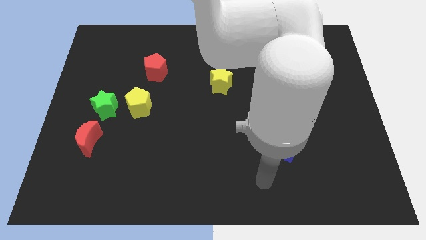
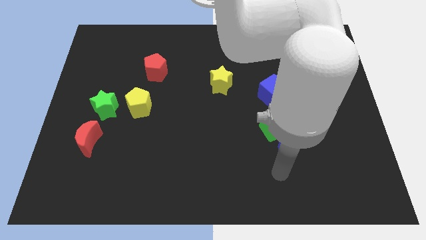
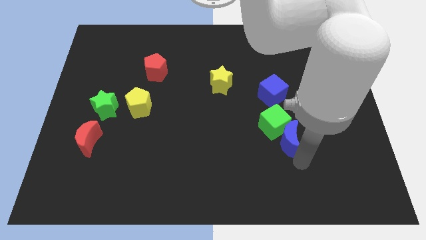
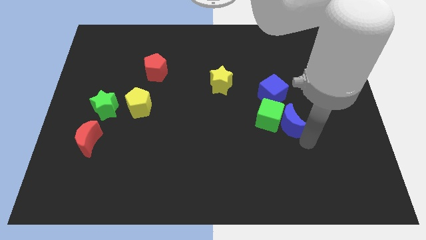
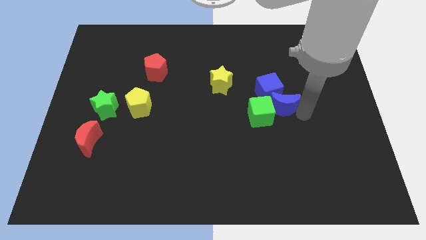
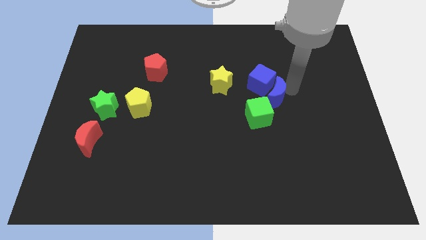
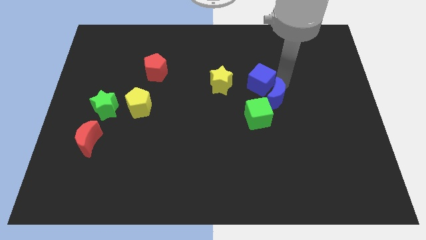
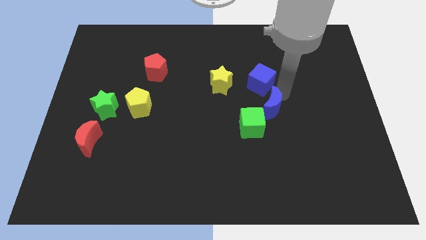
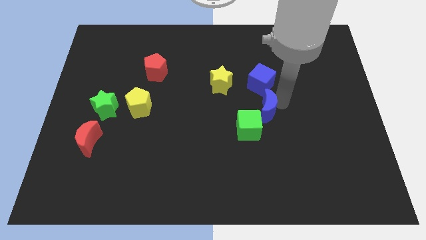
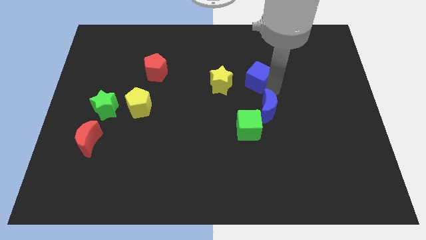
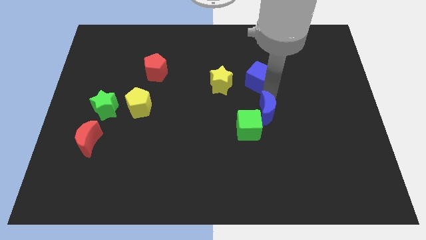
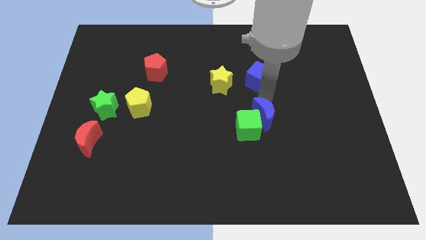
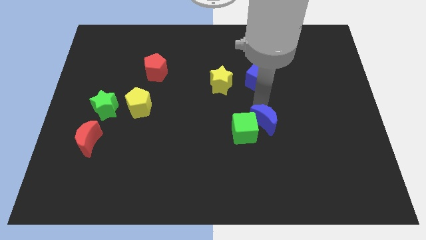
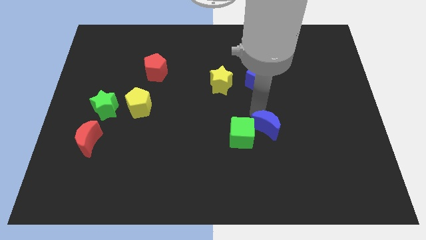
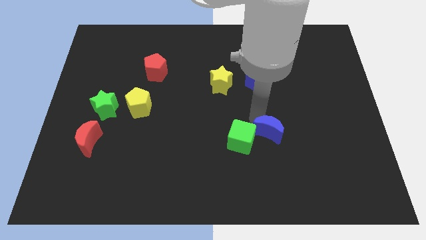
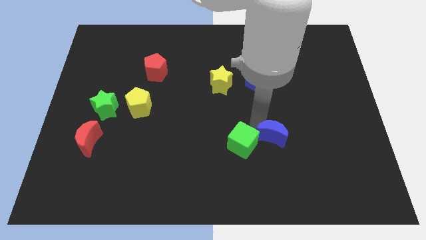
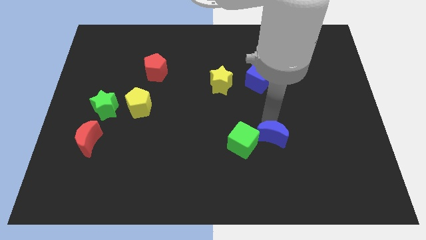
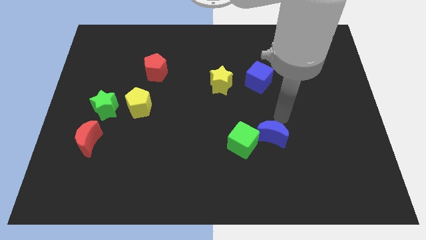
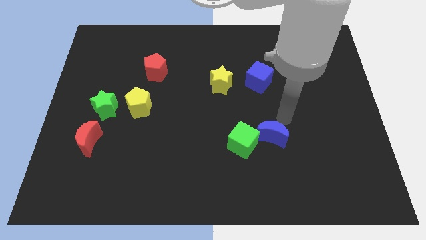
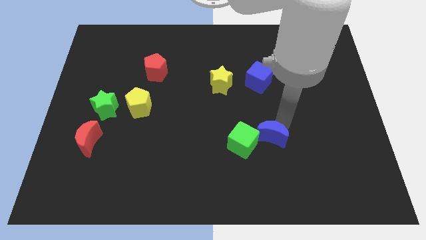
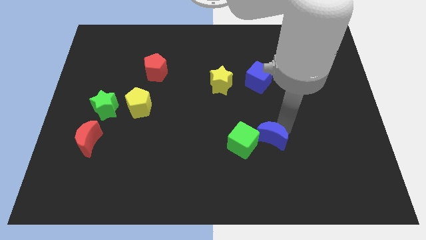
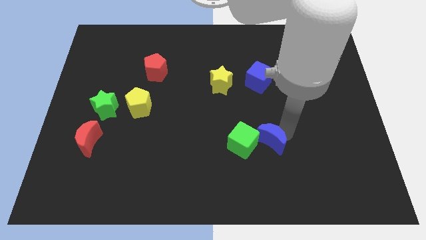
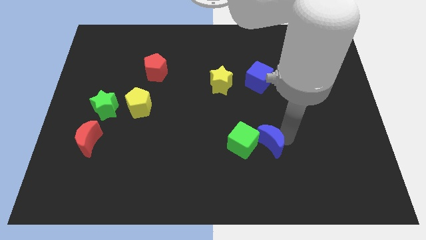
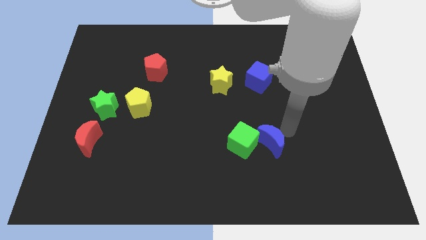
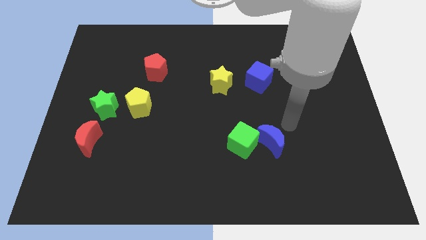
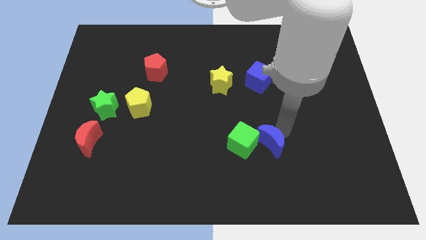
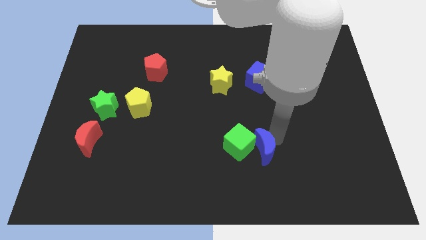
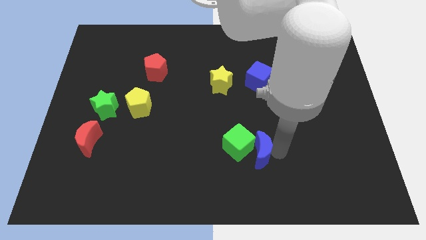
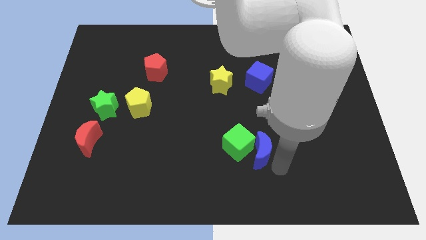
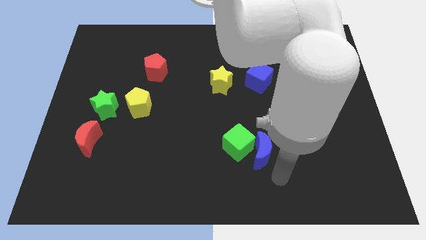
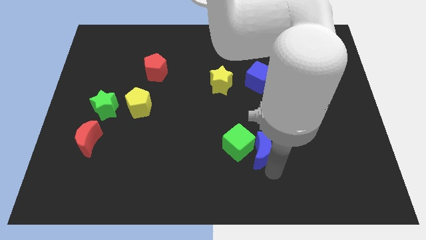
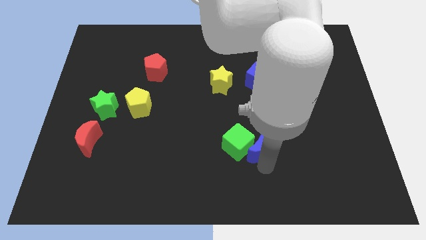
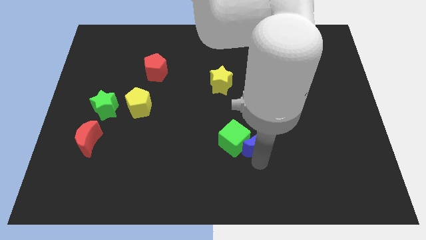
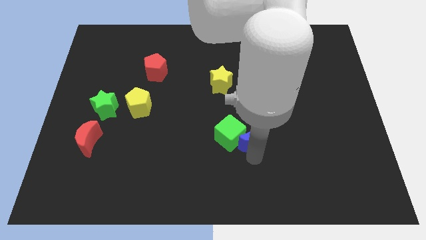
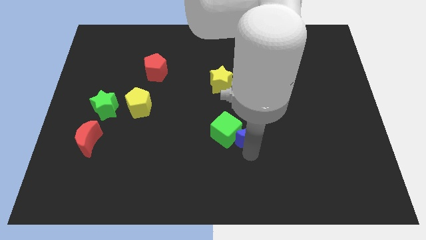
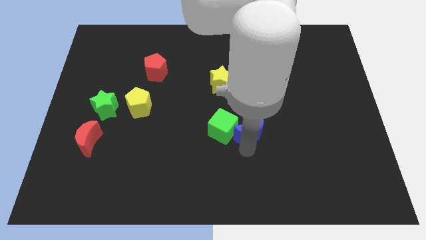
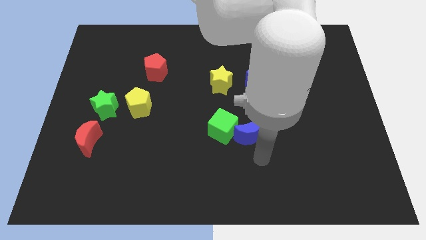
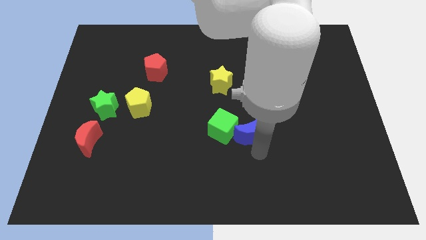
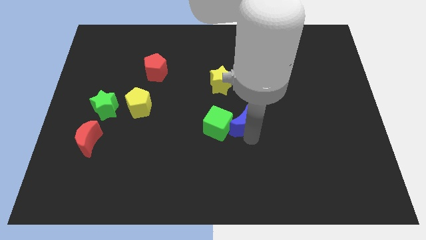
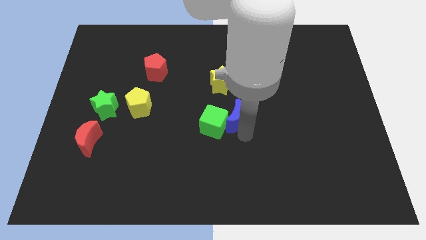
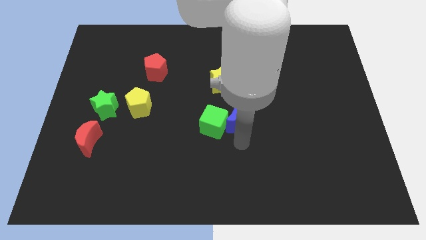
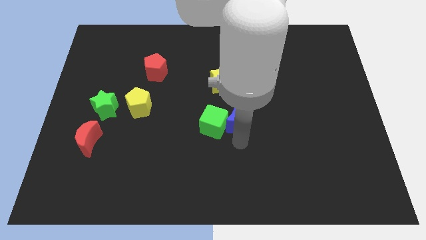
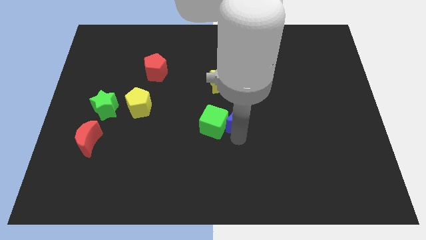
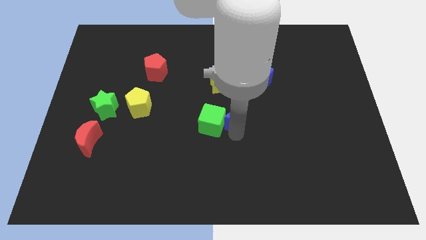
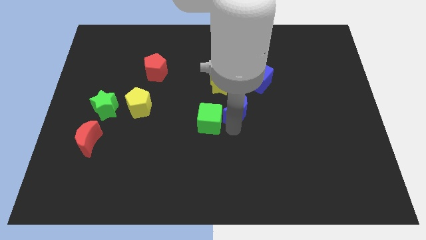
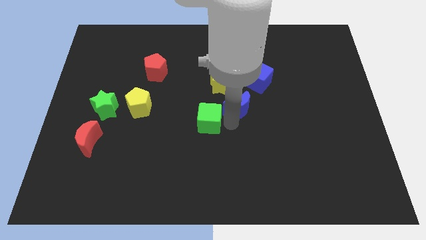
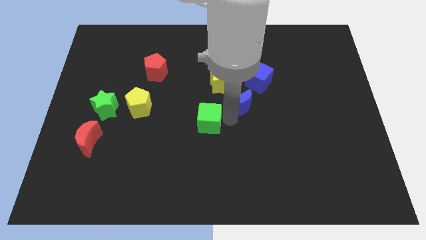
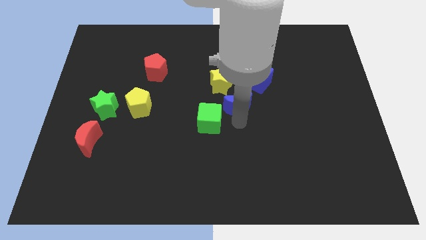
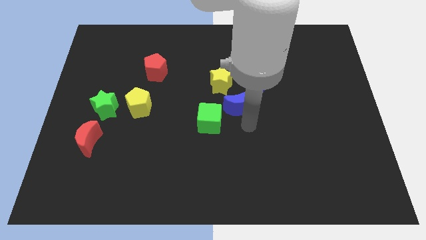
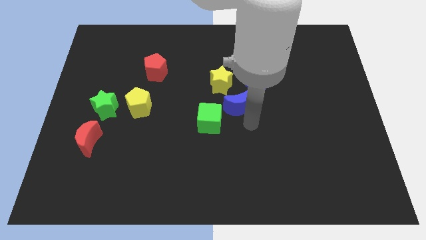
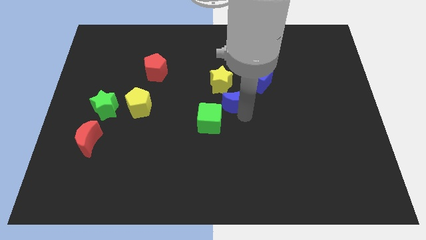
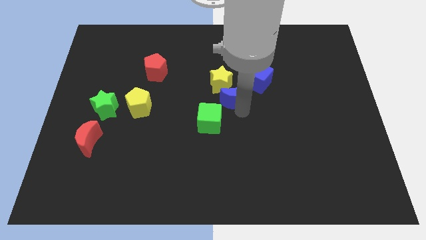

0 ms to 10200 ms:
move the blue moon close to the yellow star

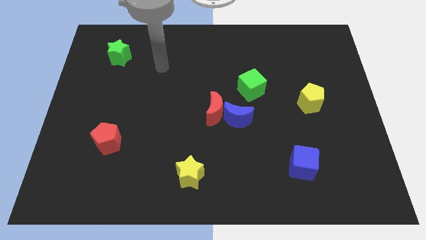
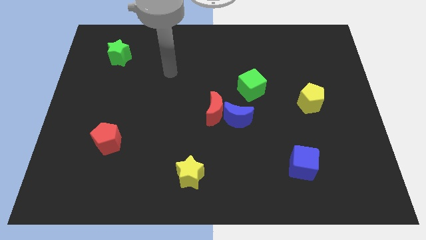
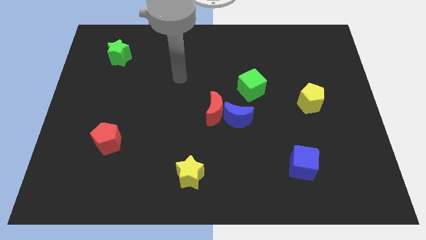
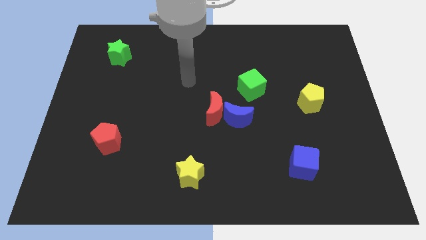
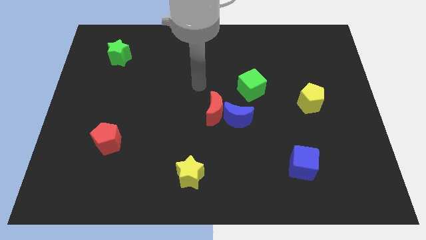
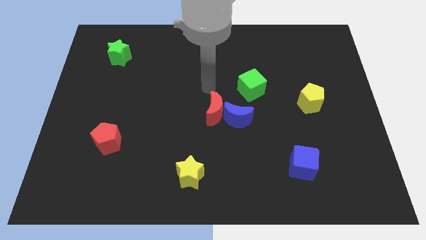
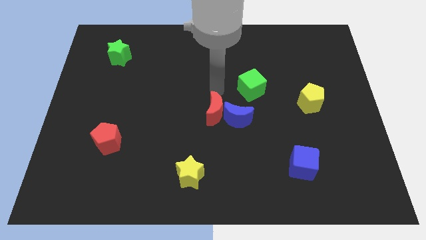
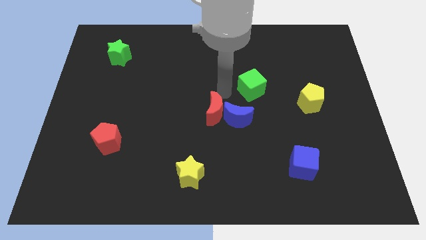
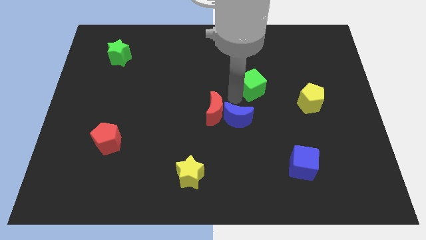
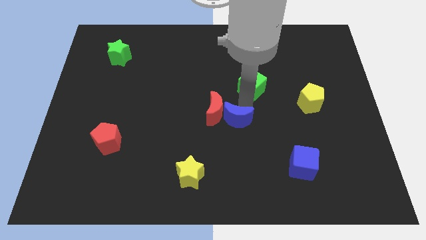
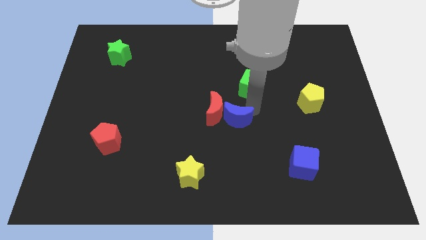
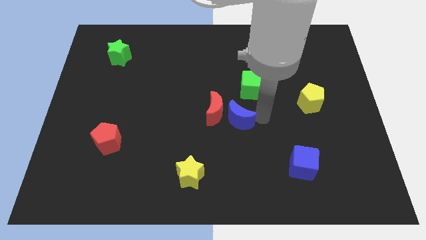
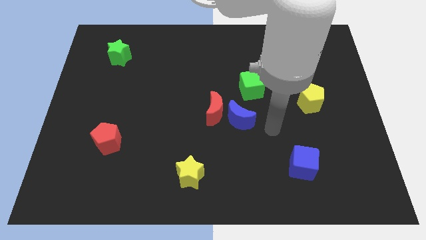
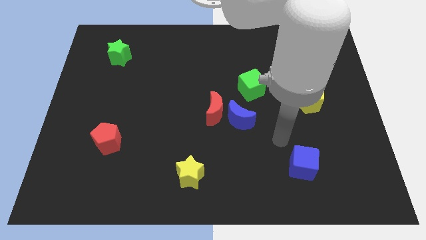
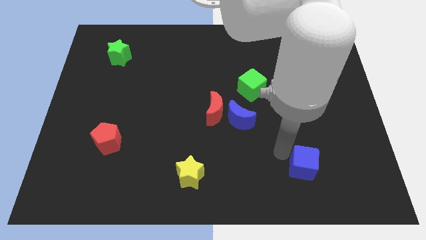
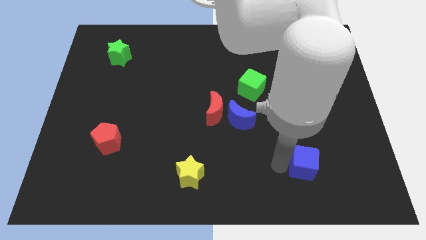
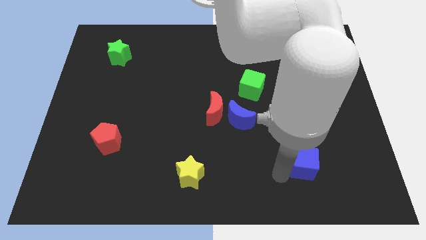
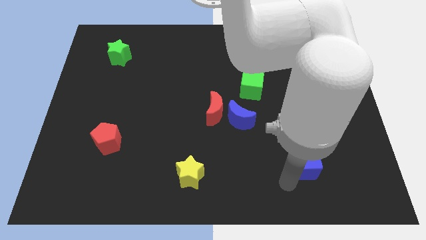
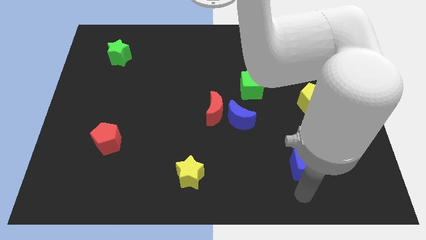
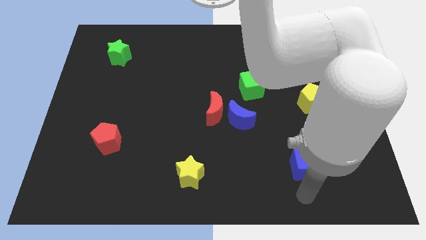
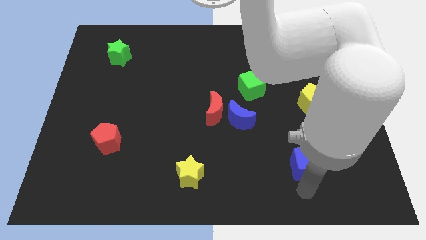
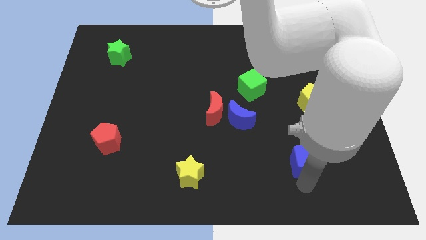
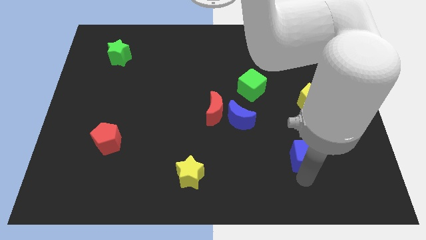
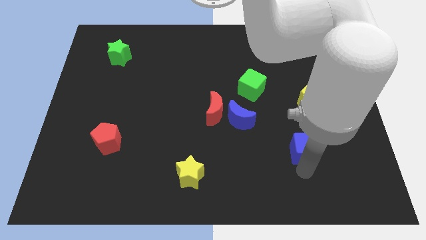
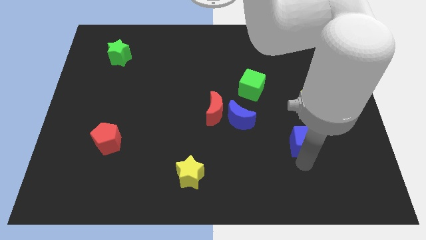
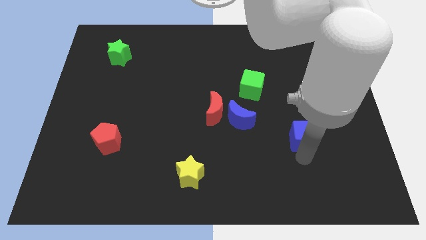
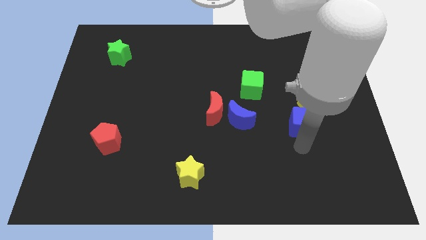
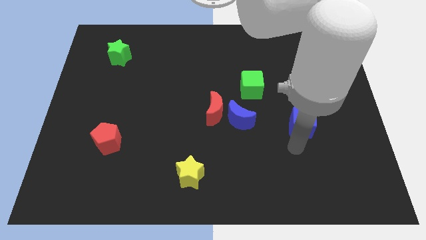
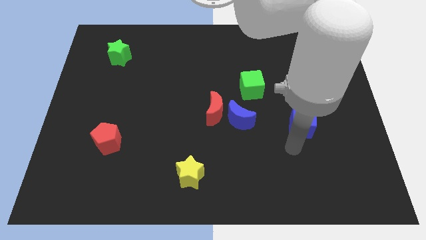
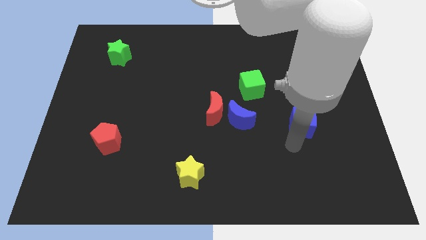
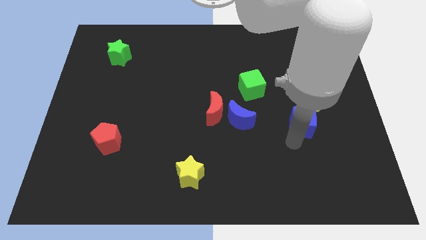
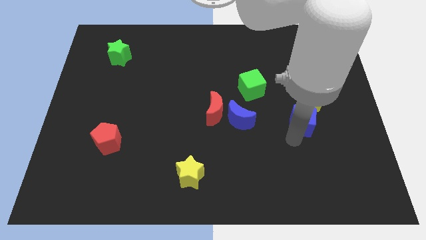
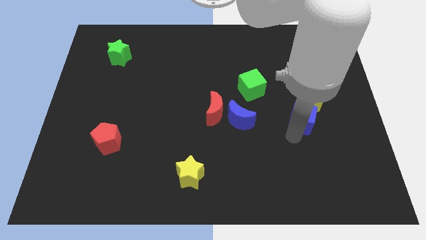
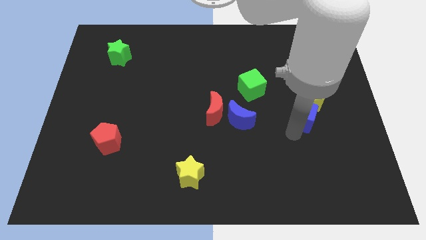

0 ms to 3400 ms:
slide the blue cube towards the yellow pentagon
